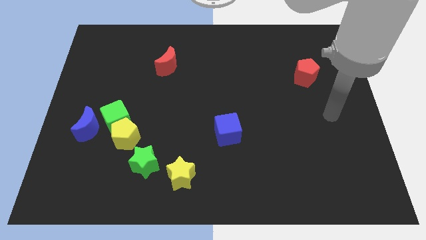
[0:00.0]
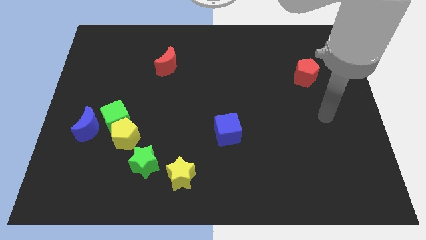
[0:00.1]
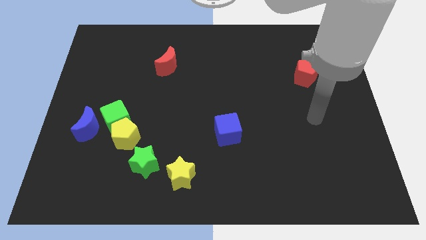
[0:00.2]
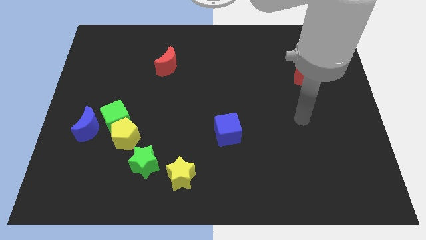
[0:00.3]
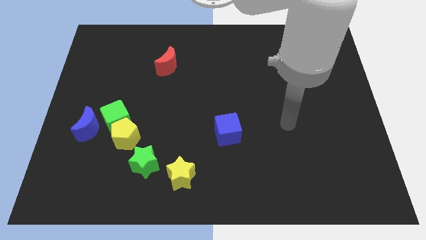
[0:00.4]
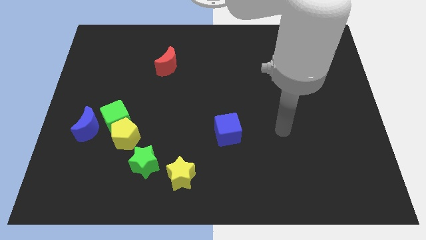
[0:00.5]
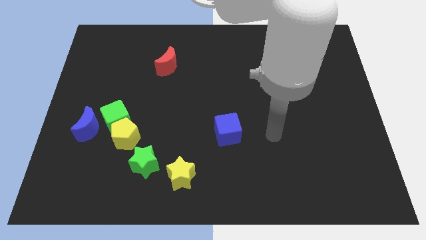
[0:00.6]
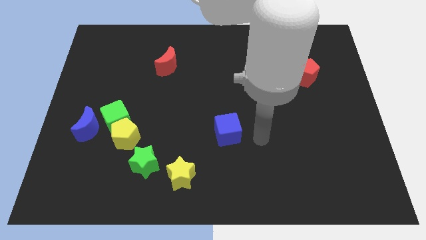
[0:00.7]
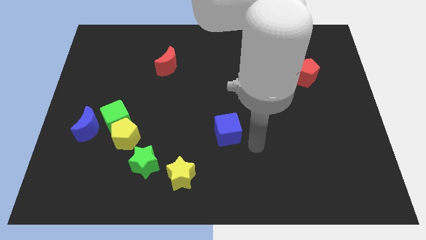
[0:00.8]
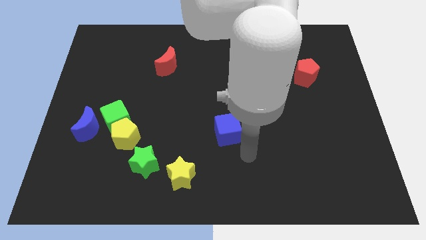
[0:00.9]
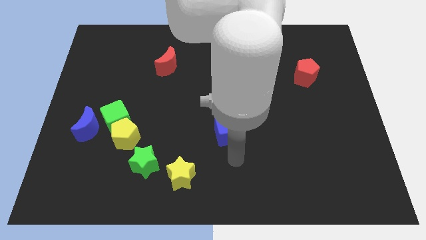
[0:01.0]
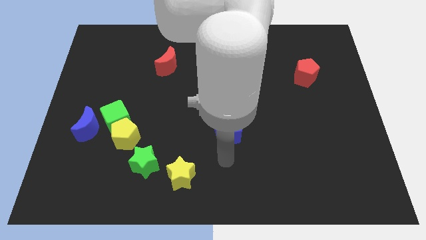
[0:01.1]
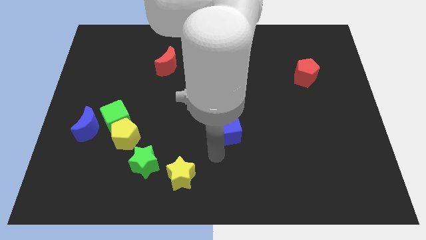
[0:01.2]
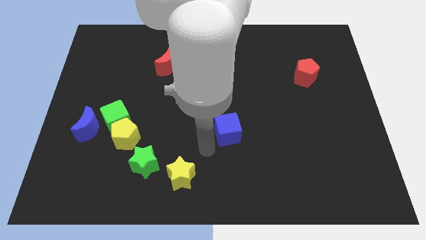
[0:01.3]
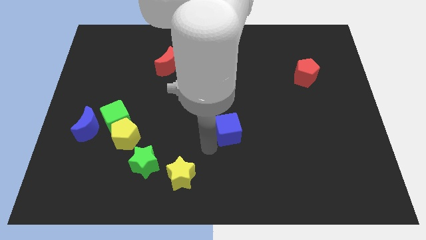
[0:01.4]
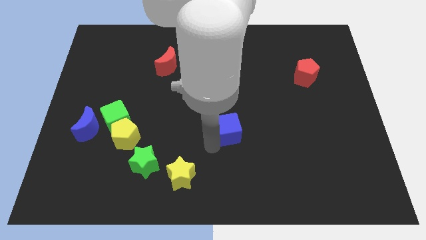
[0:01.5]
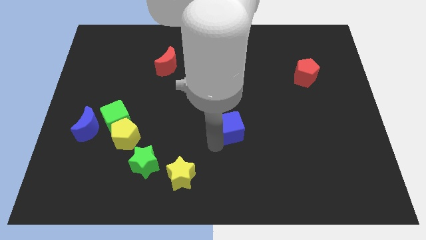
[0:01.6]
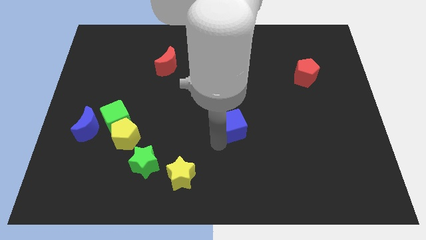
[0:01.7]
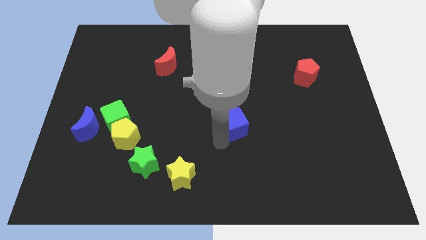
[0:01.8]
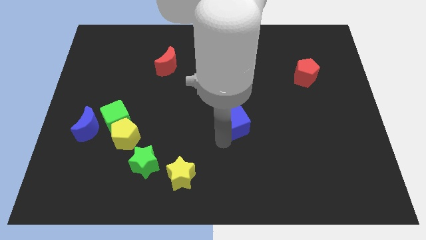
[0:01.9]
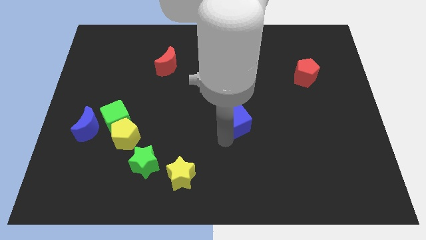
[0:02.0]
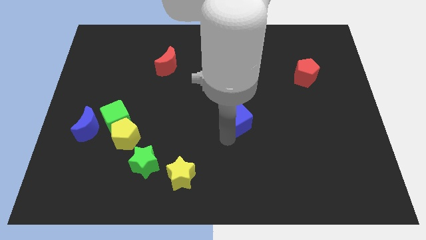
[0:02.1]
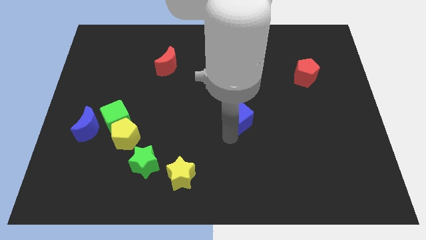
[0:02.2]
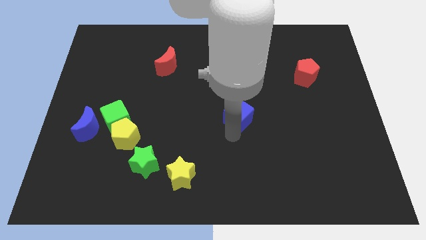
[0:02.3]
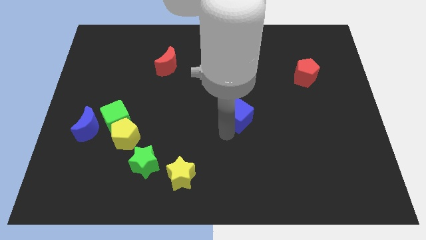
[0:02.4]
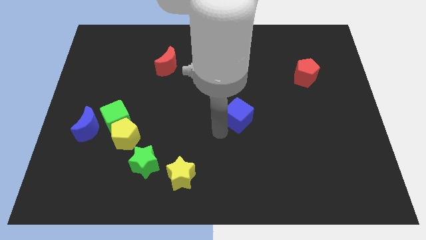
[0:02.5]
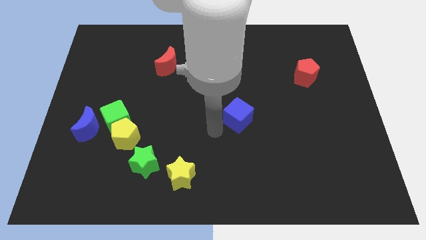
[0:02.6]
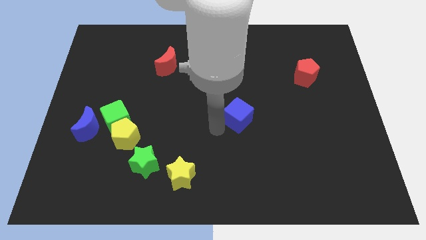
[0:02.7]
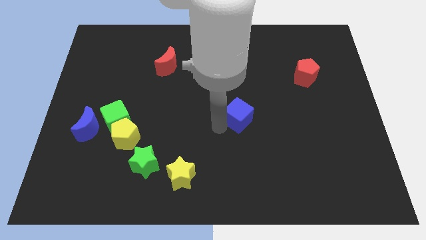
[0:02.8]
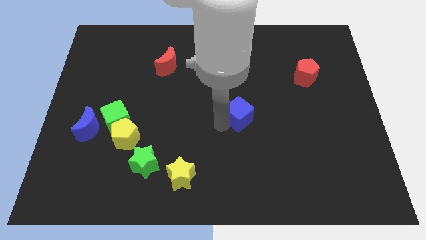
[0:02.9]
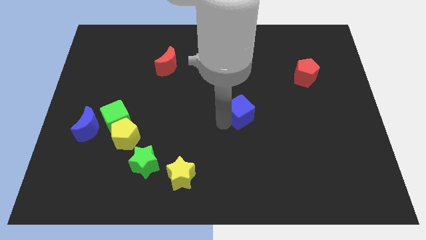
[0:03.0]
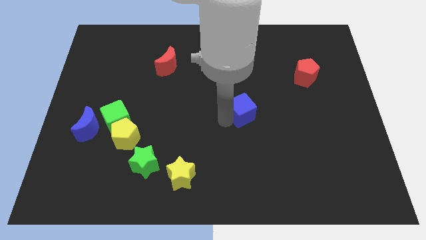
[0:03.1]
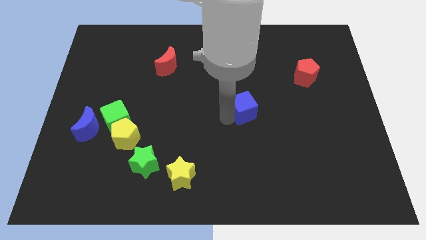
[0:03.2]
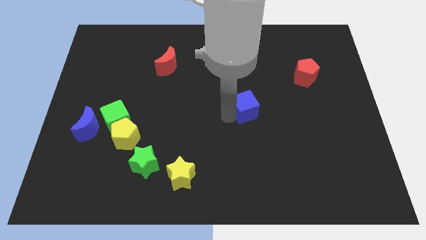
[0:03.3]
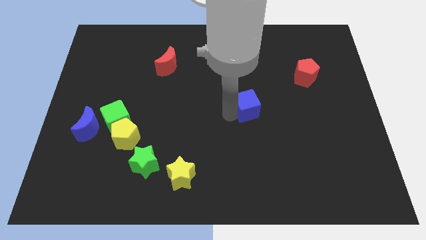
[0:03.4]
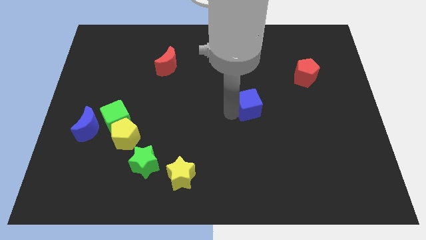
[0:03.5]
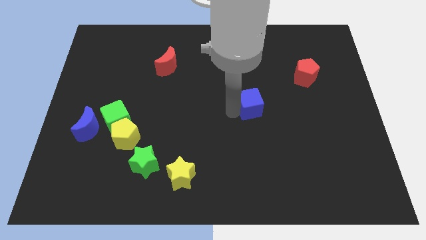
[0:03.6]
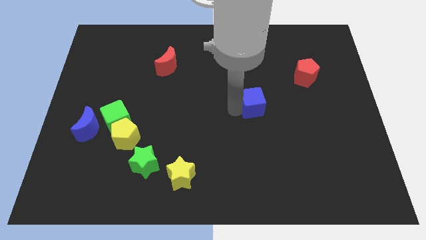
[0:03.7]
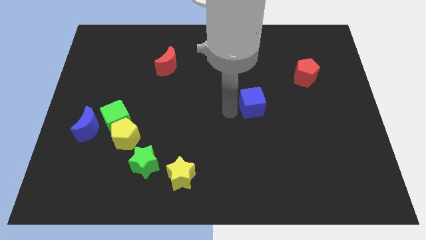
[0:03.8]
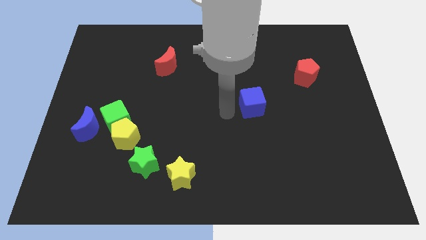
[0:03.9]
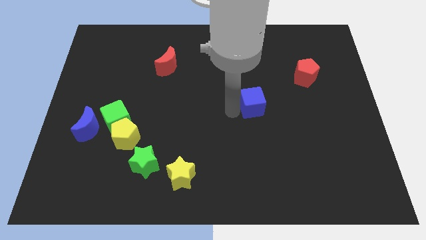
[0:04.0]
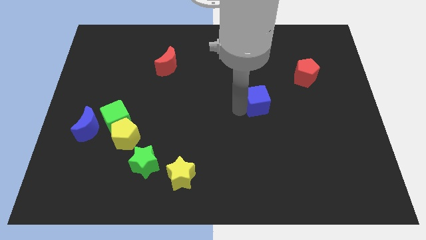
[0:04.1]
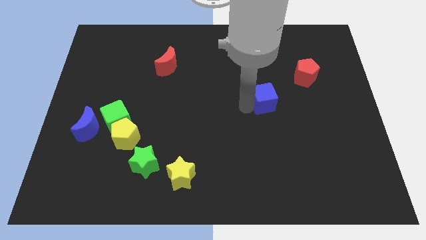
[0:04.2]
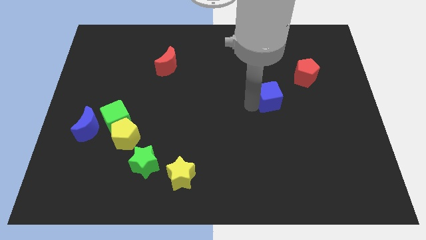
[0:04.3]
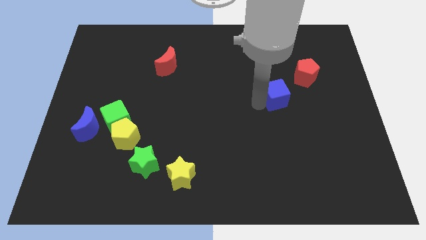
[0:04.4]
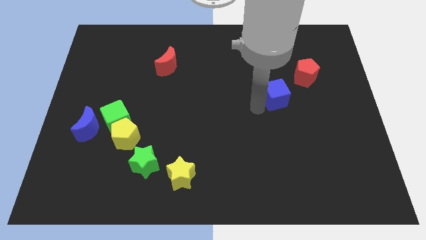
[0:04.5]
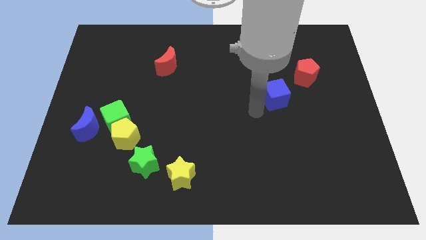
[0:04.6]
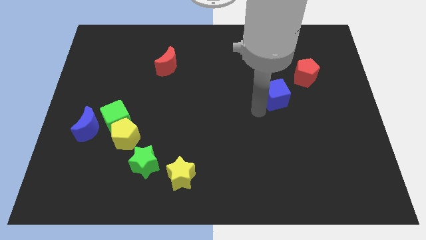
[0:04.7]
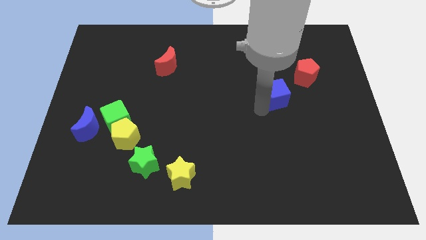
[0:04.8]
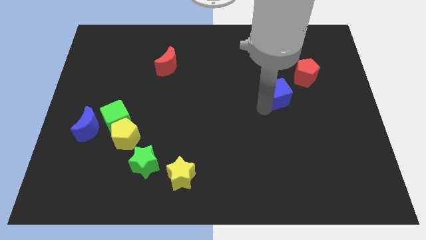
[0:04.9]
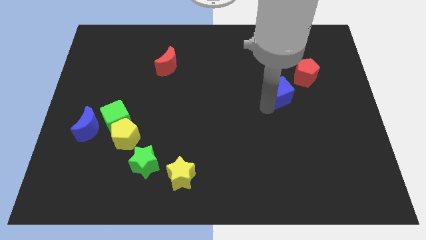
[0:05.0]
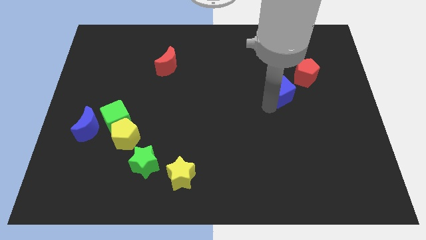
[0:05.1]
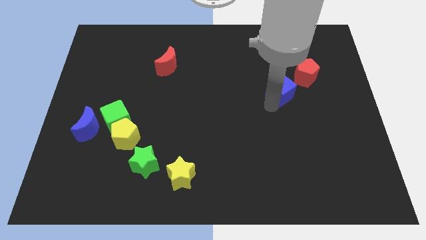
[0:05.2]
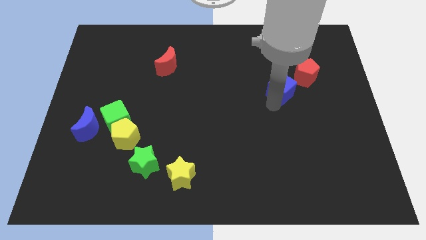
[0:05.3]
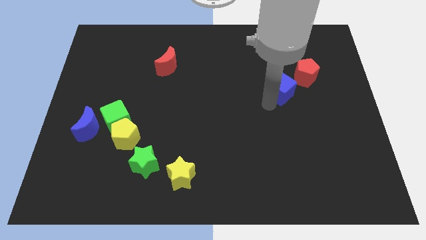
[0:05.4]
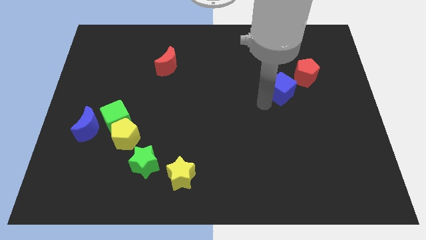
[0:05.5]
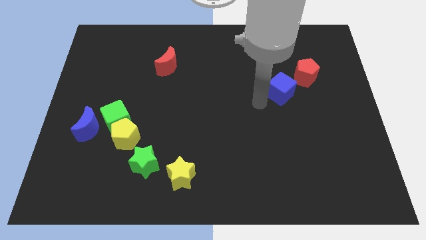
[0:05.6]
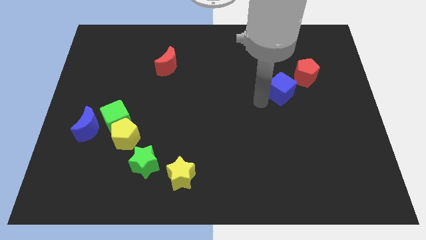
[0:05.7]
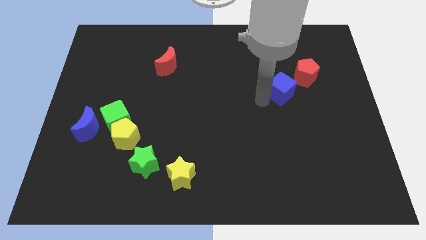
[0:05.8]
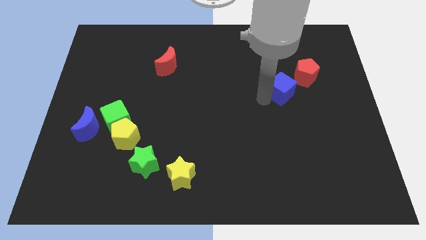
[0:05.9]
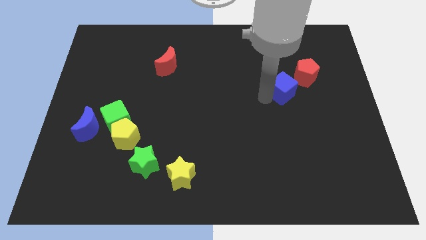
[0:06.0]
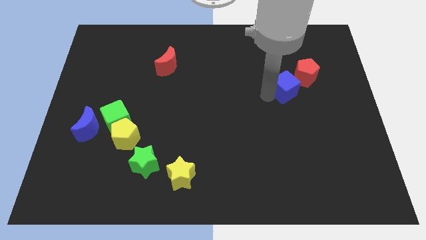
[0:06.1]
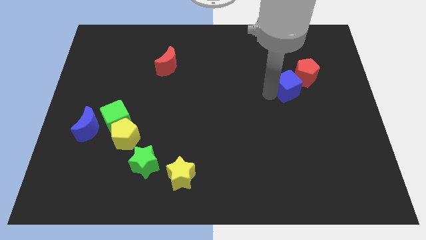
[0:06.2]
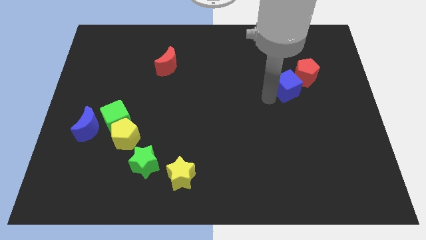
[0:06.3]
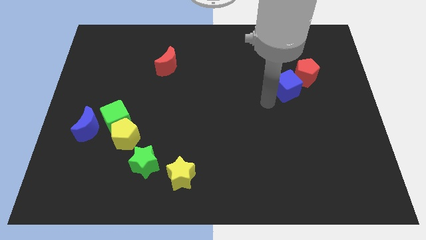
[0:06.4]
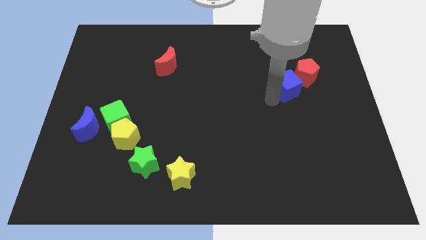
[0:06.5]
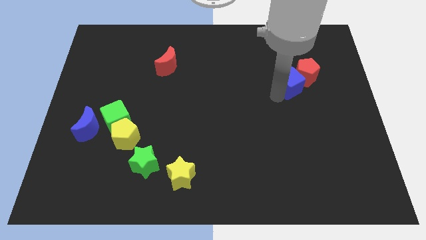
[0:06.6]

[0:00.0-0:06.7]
put the blue cube towards the red pentagon

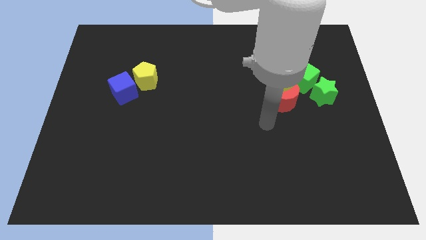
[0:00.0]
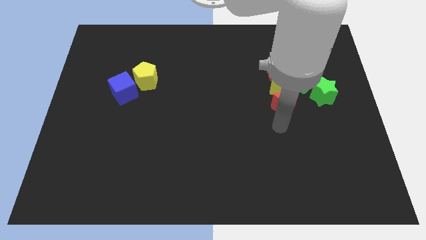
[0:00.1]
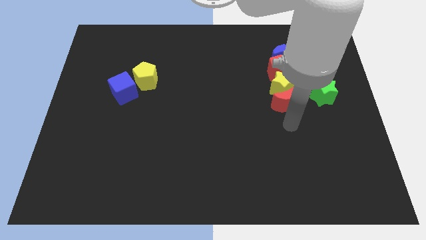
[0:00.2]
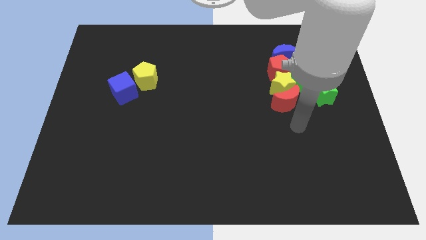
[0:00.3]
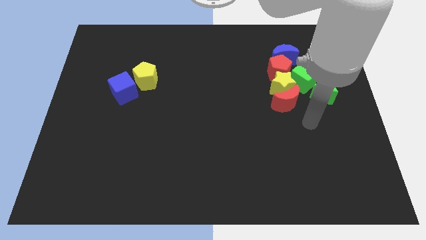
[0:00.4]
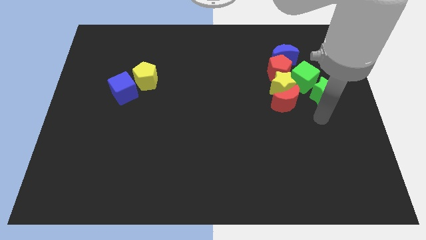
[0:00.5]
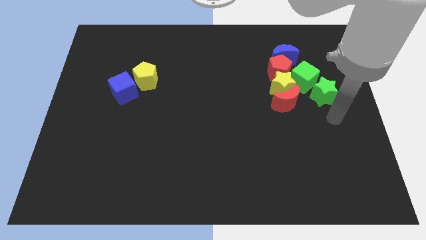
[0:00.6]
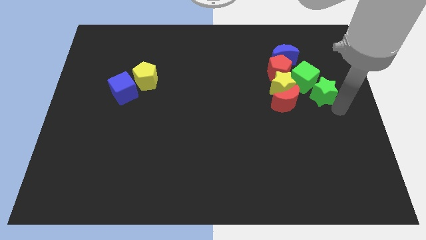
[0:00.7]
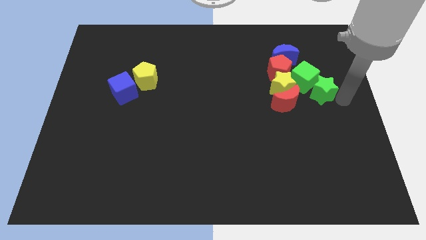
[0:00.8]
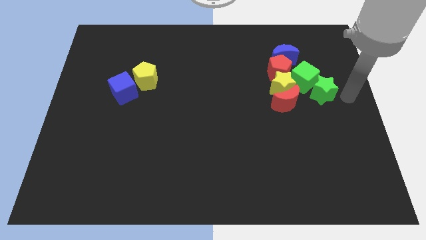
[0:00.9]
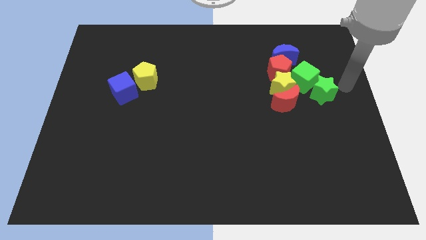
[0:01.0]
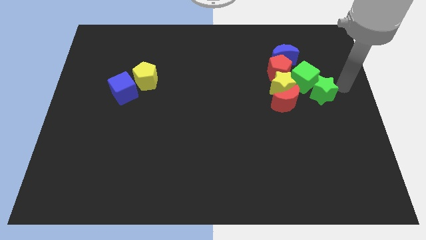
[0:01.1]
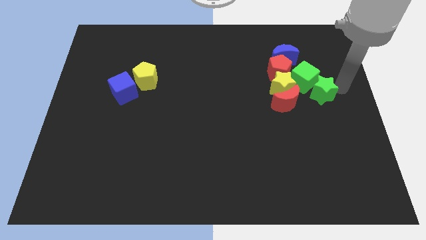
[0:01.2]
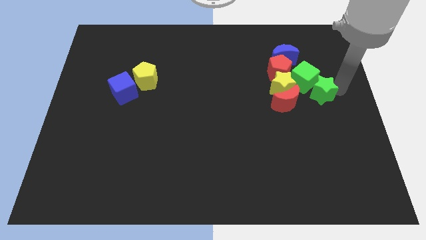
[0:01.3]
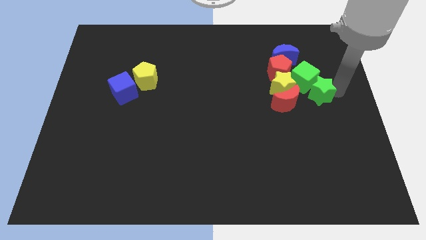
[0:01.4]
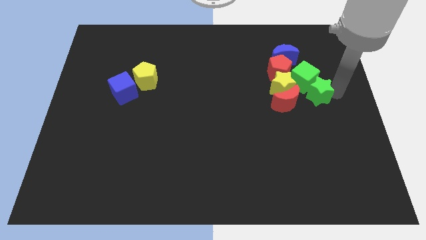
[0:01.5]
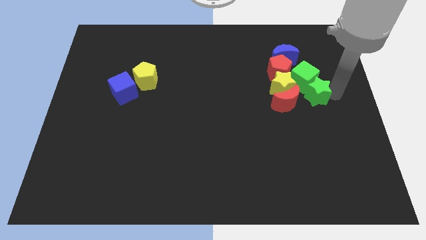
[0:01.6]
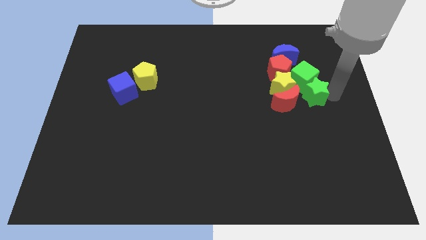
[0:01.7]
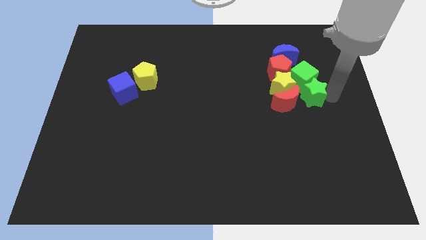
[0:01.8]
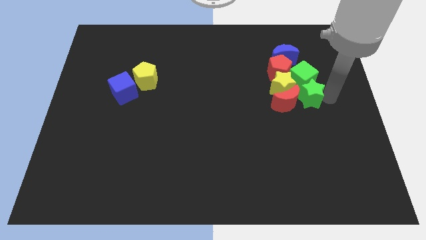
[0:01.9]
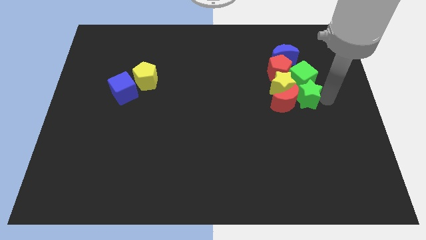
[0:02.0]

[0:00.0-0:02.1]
push the green star towards the red moon
